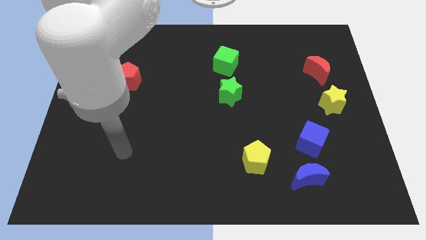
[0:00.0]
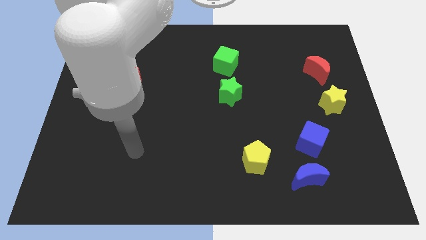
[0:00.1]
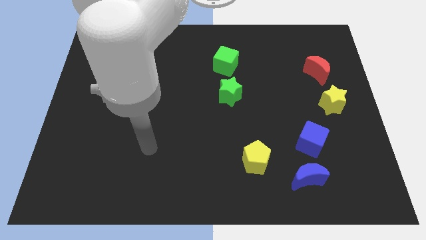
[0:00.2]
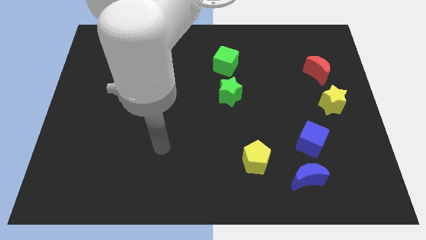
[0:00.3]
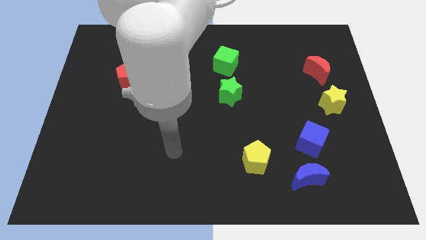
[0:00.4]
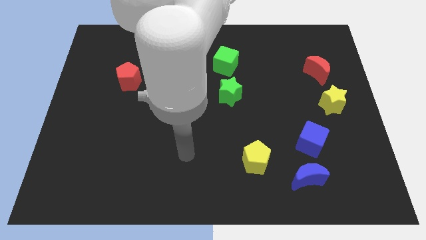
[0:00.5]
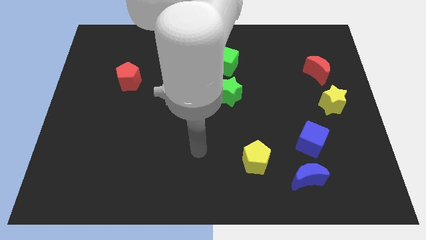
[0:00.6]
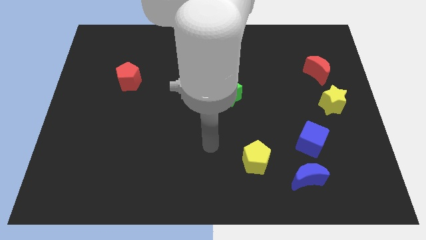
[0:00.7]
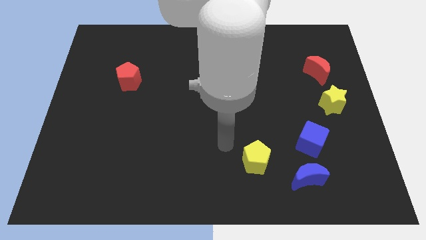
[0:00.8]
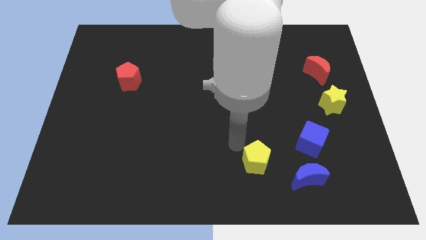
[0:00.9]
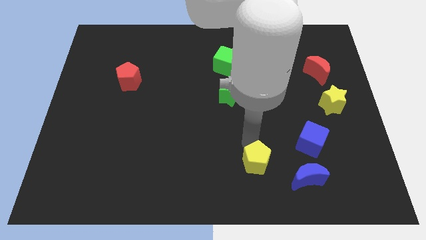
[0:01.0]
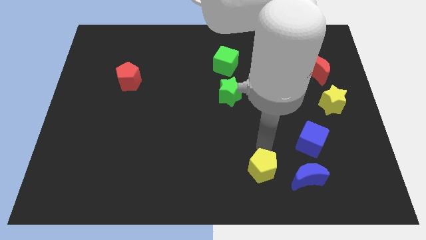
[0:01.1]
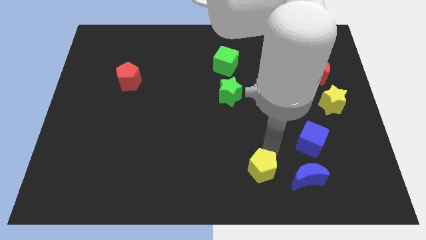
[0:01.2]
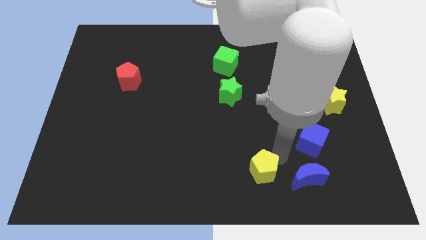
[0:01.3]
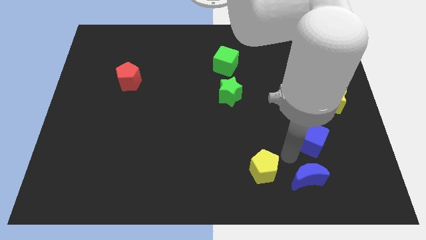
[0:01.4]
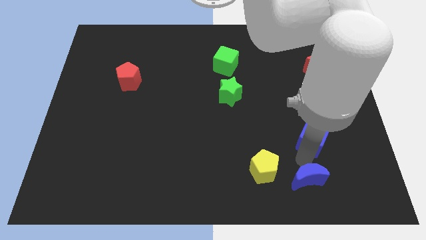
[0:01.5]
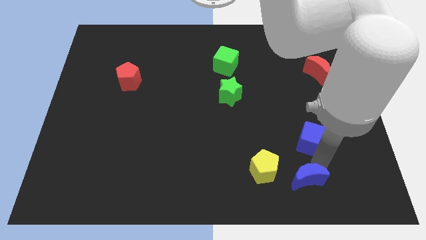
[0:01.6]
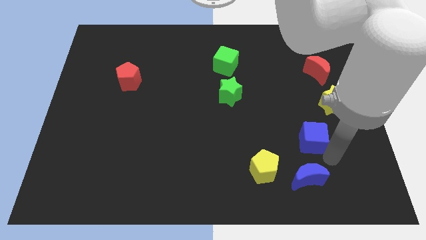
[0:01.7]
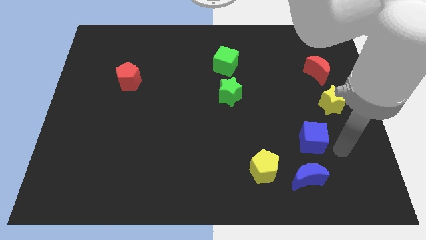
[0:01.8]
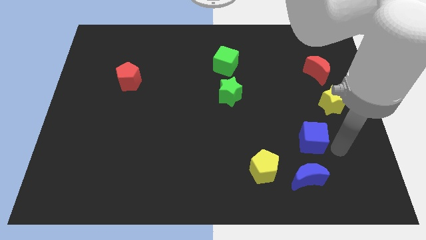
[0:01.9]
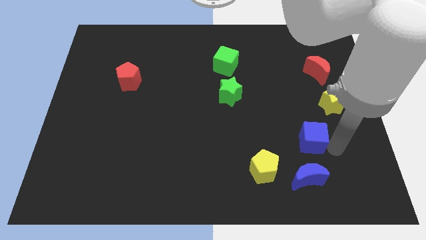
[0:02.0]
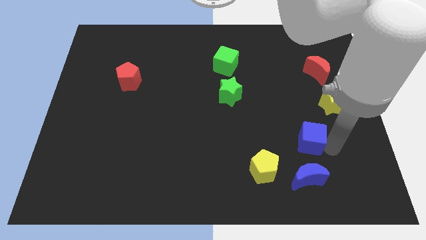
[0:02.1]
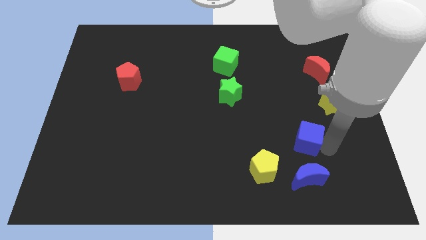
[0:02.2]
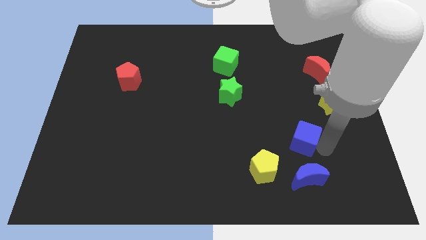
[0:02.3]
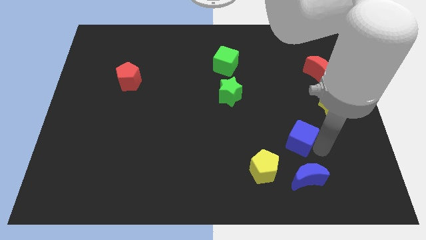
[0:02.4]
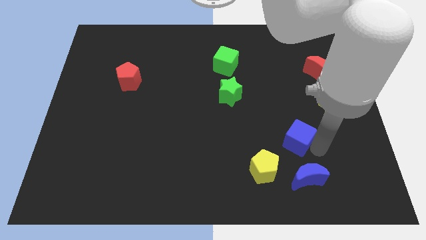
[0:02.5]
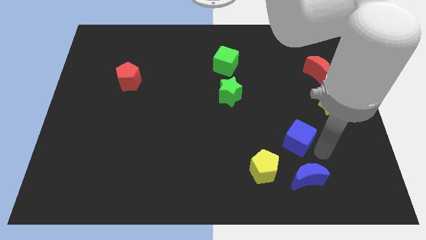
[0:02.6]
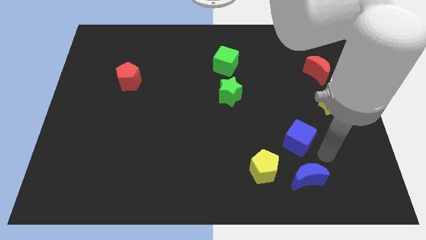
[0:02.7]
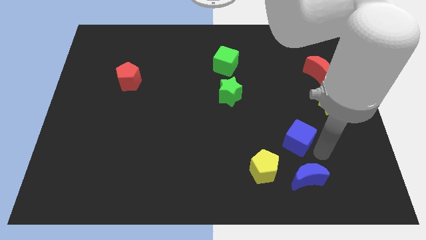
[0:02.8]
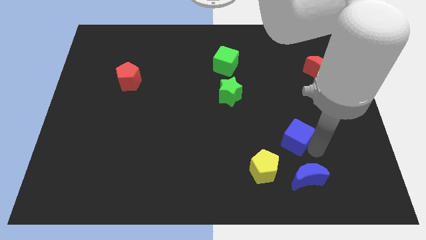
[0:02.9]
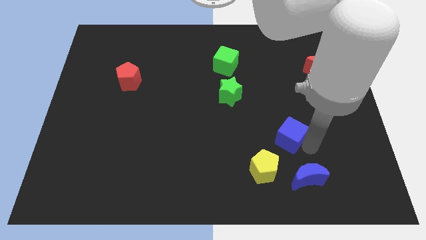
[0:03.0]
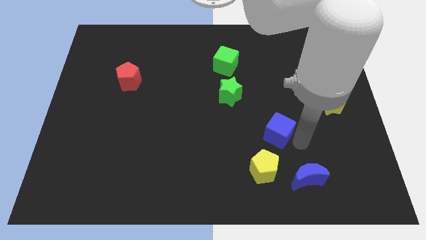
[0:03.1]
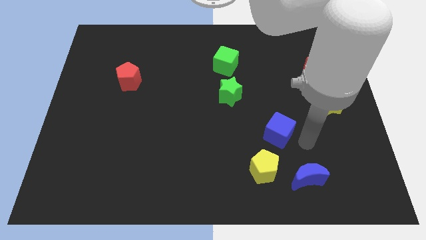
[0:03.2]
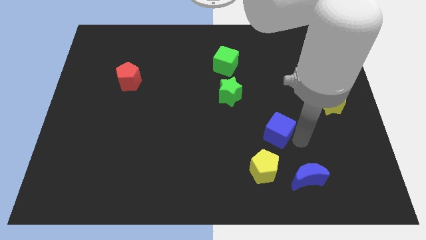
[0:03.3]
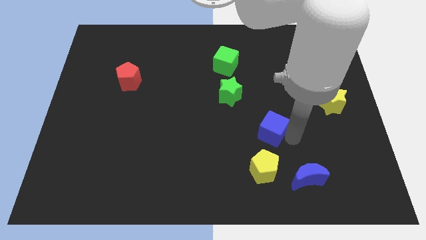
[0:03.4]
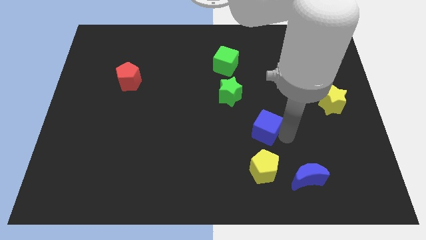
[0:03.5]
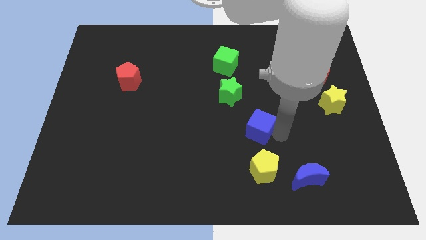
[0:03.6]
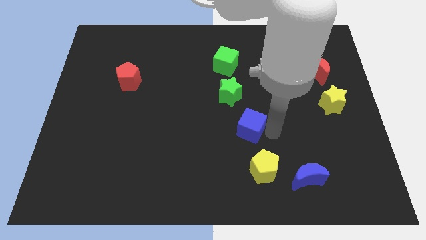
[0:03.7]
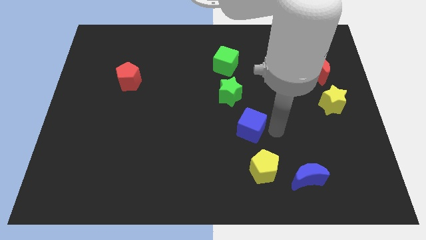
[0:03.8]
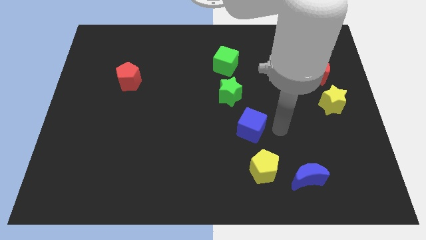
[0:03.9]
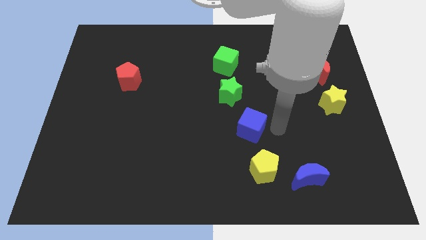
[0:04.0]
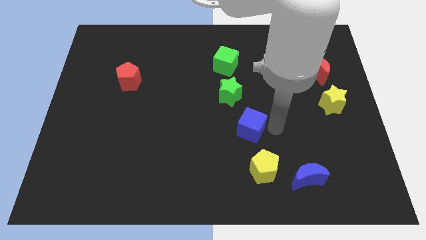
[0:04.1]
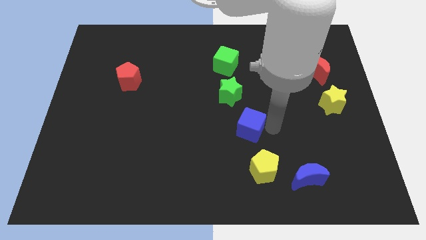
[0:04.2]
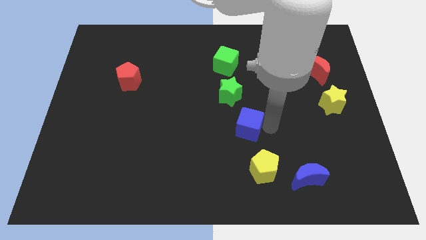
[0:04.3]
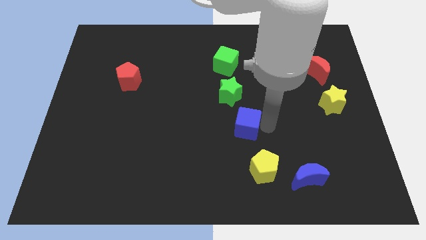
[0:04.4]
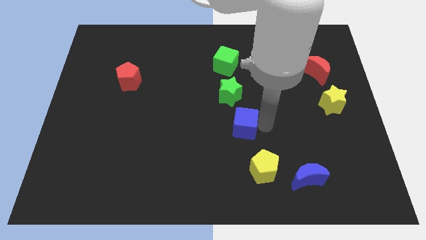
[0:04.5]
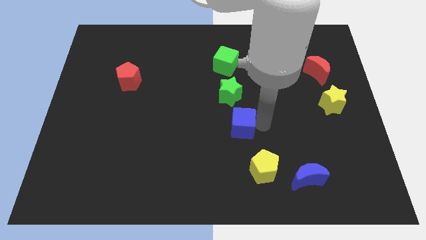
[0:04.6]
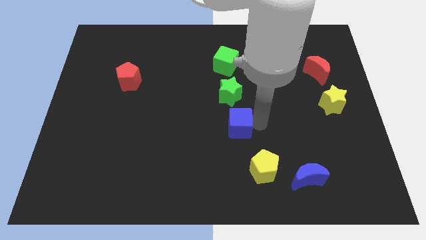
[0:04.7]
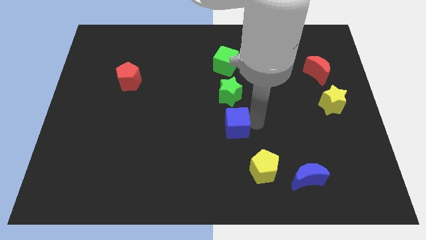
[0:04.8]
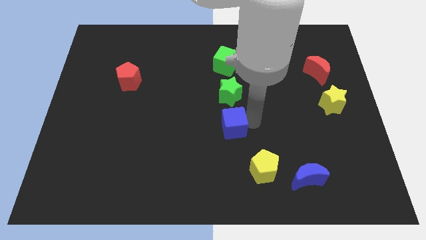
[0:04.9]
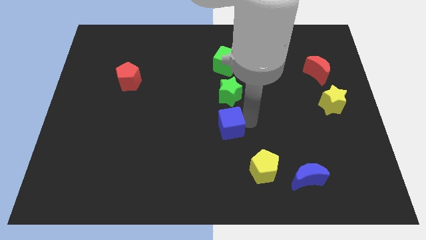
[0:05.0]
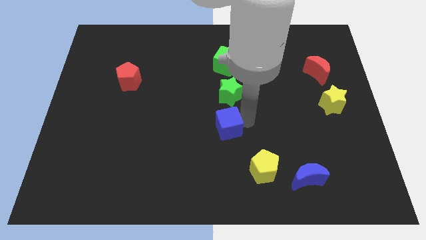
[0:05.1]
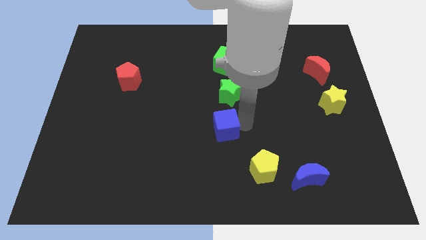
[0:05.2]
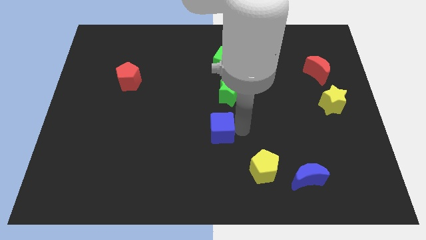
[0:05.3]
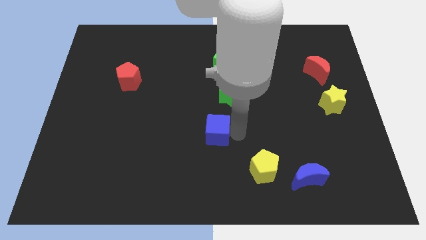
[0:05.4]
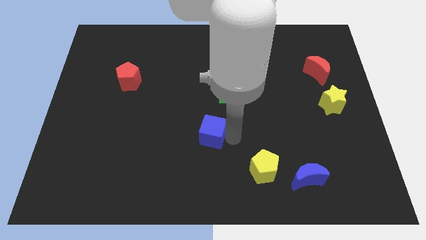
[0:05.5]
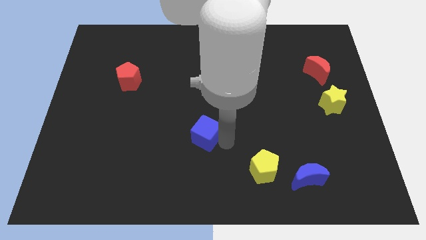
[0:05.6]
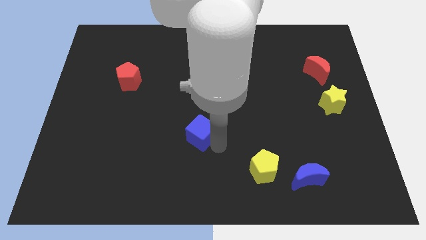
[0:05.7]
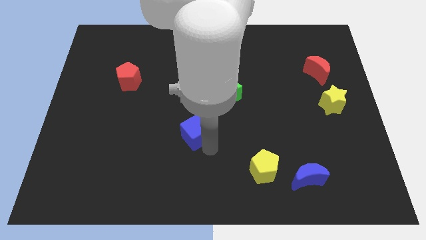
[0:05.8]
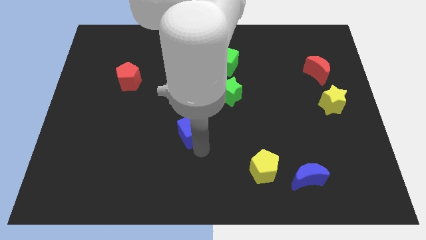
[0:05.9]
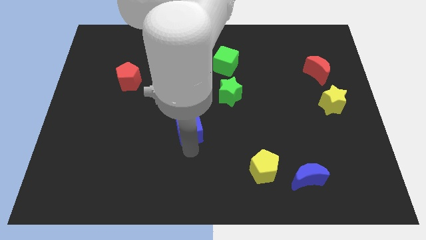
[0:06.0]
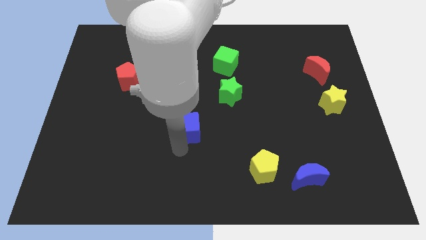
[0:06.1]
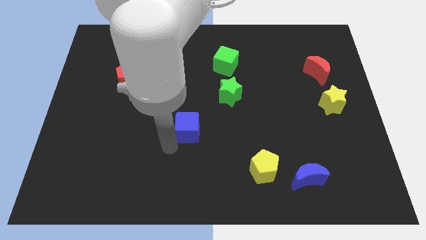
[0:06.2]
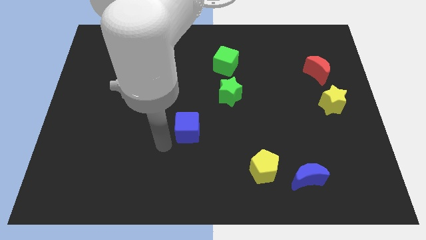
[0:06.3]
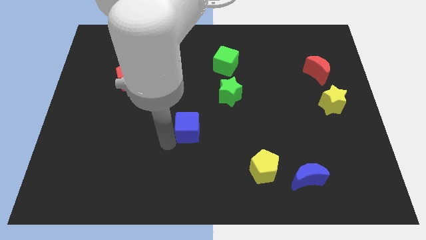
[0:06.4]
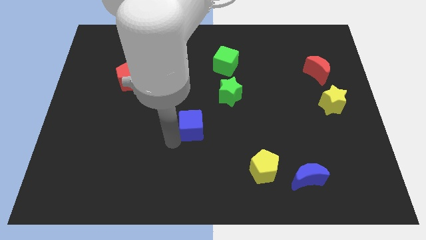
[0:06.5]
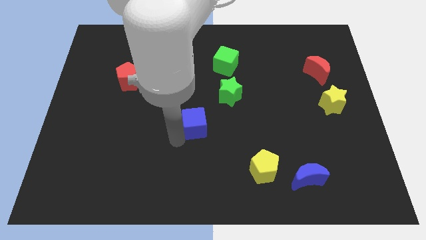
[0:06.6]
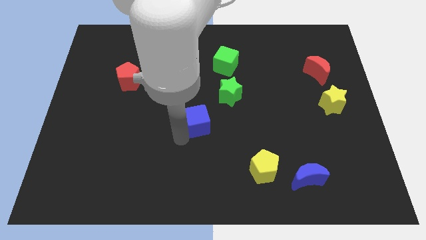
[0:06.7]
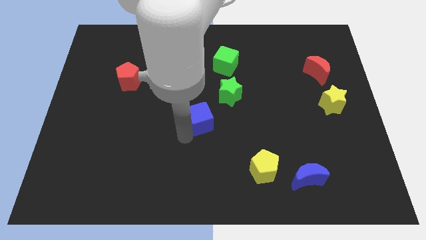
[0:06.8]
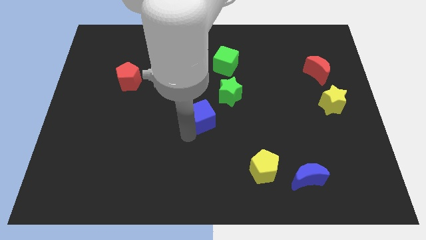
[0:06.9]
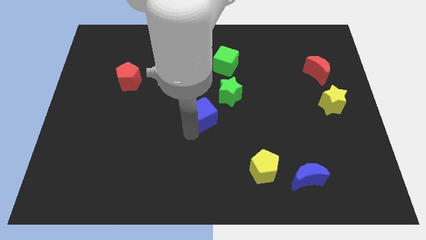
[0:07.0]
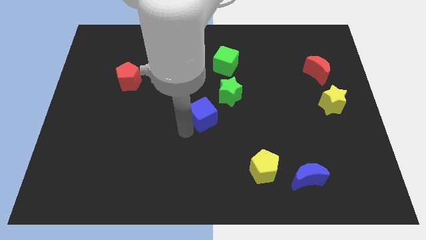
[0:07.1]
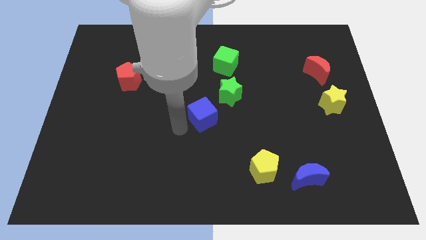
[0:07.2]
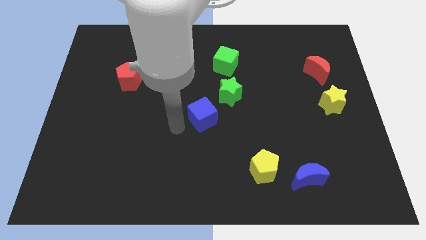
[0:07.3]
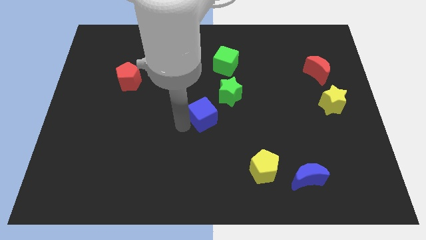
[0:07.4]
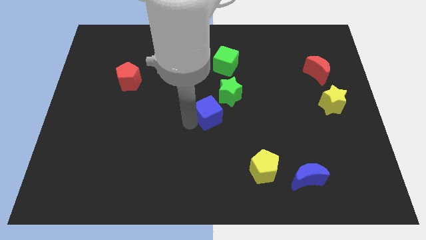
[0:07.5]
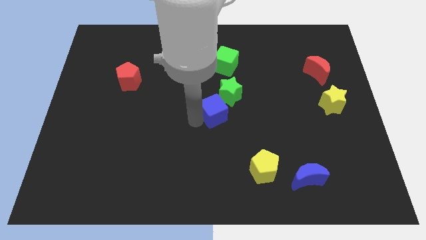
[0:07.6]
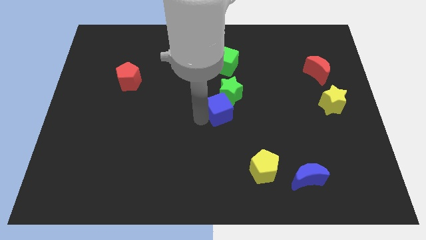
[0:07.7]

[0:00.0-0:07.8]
slide the blue cube to the bottom side of the green cube

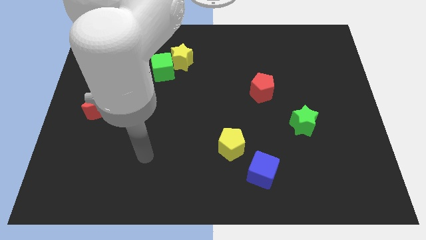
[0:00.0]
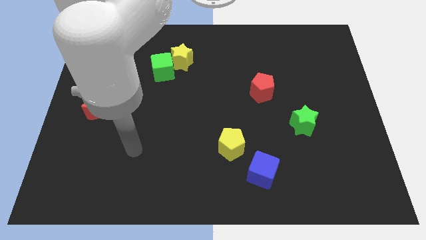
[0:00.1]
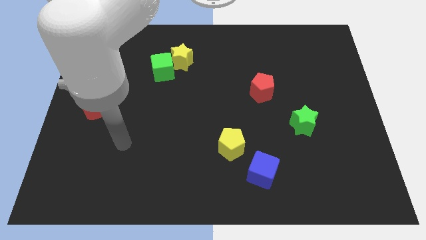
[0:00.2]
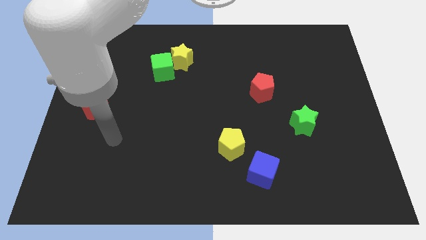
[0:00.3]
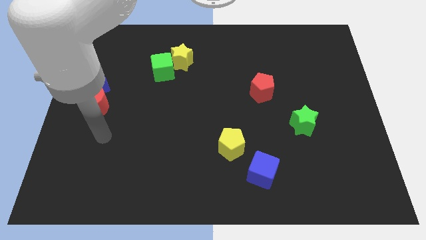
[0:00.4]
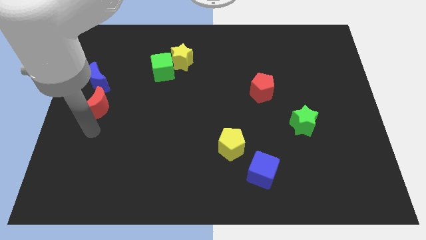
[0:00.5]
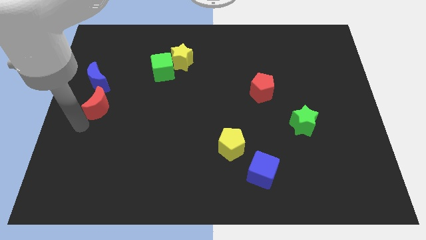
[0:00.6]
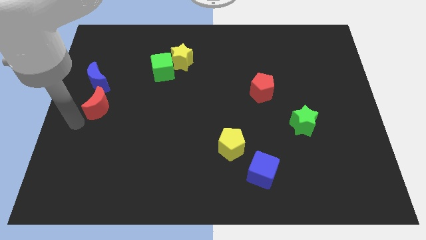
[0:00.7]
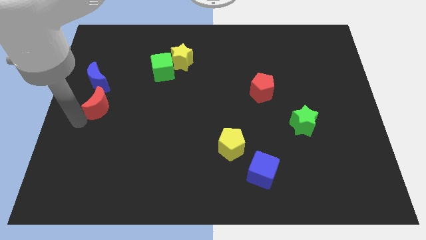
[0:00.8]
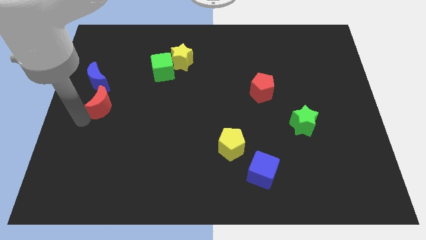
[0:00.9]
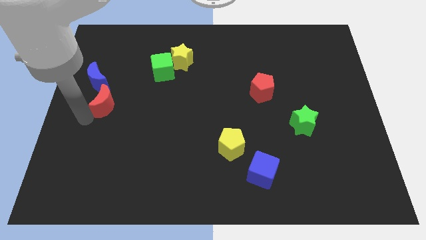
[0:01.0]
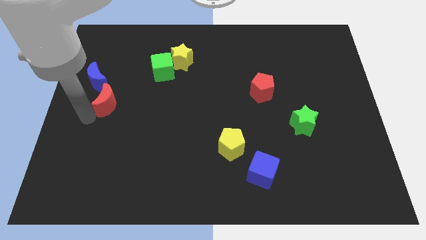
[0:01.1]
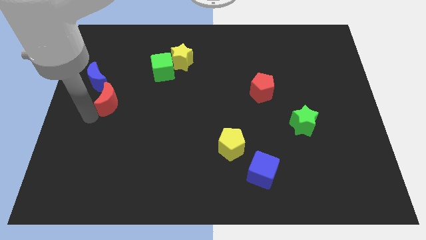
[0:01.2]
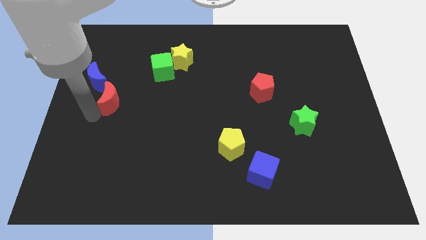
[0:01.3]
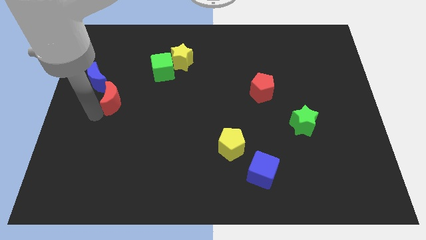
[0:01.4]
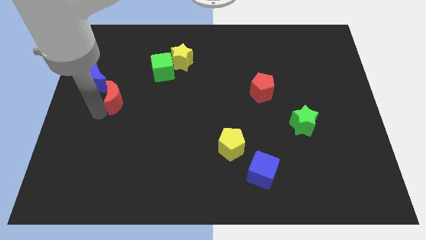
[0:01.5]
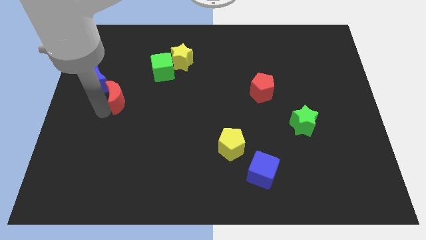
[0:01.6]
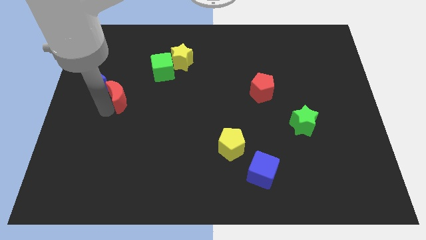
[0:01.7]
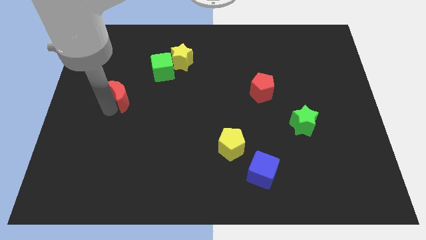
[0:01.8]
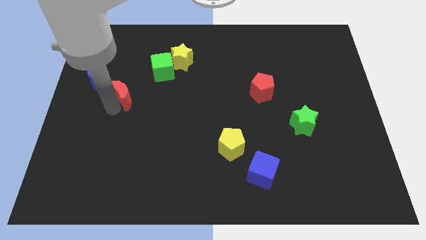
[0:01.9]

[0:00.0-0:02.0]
move the red moon to the right side of the blue moon
